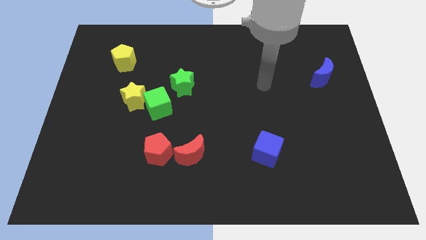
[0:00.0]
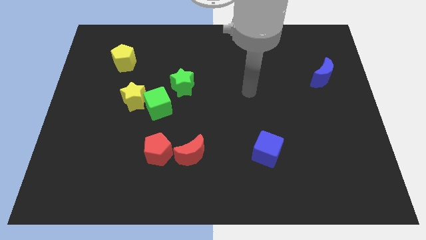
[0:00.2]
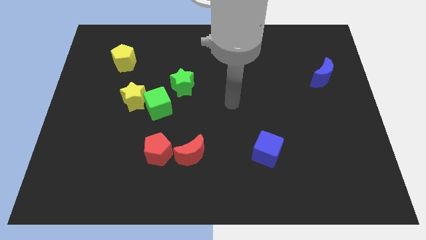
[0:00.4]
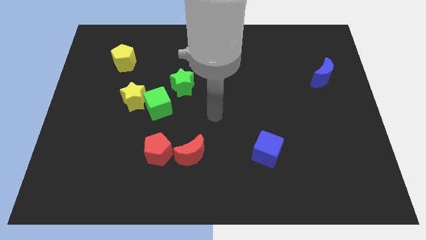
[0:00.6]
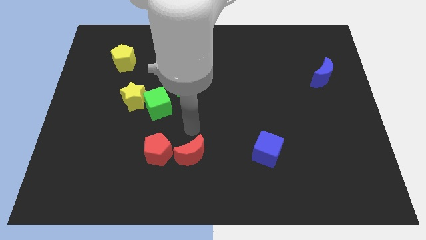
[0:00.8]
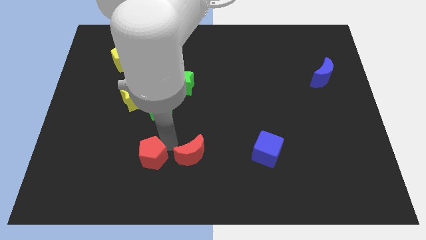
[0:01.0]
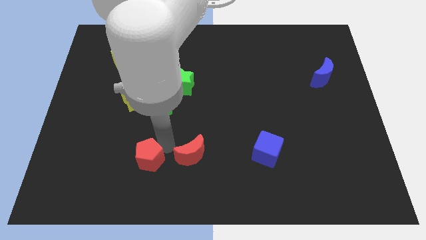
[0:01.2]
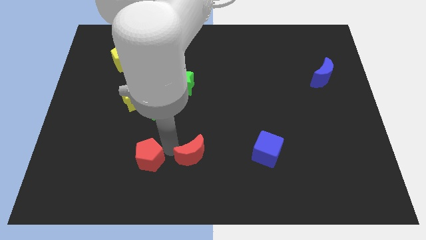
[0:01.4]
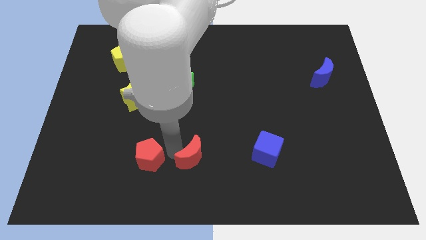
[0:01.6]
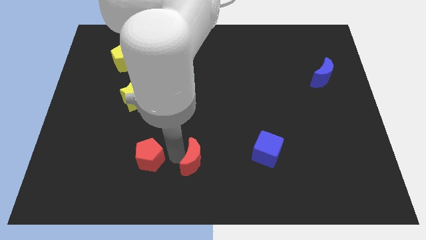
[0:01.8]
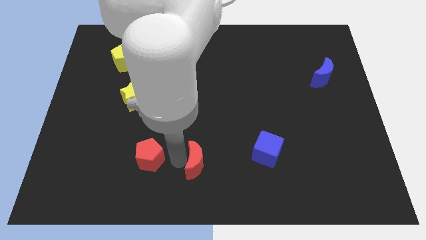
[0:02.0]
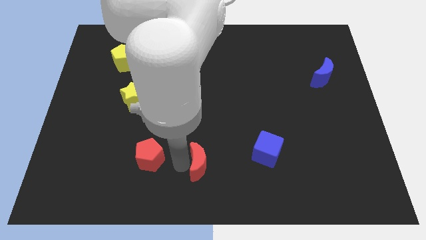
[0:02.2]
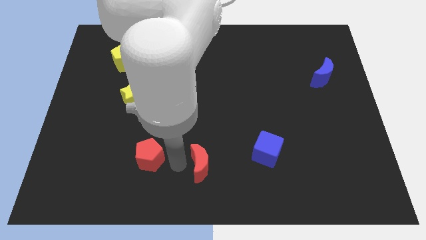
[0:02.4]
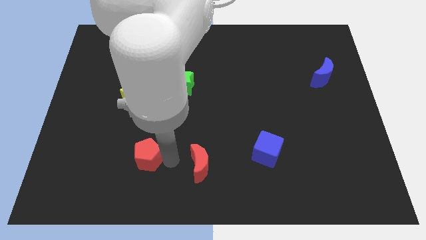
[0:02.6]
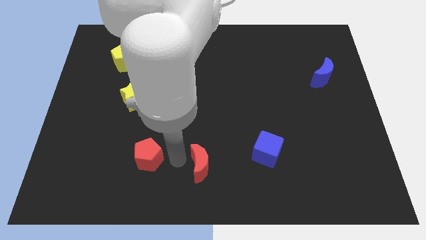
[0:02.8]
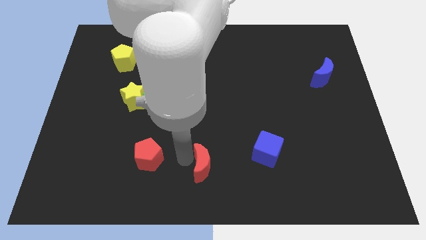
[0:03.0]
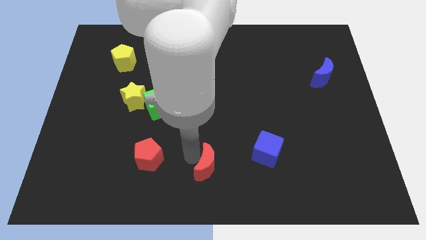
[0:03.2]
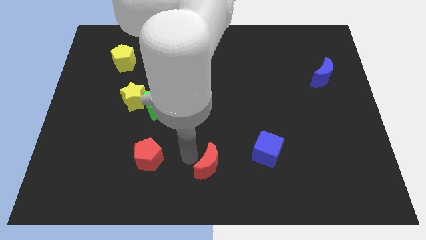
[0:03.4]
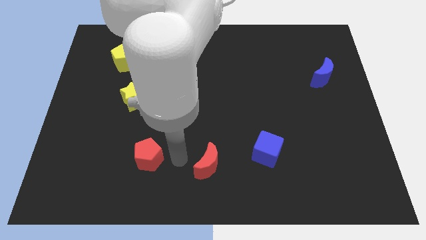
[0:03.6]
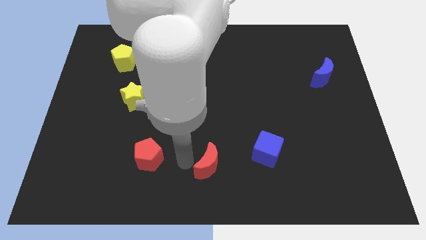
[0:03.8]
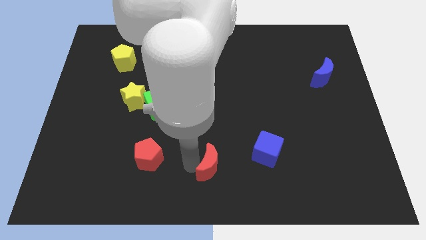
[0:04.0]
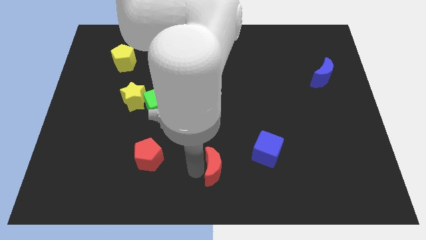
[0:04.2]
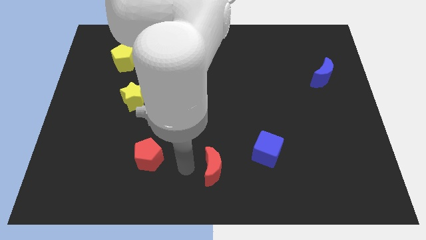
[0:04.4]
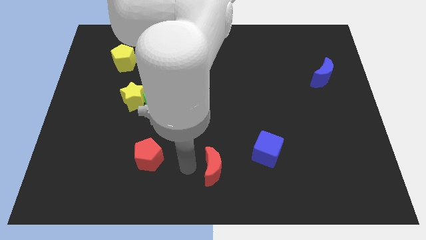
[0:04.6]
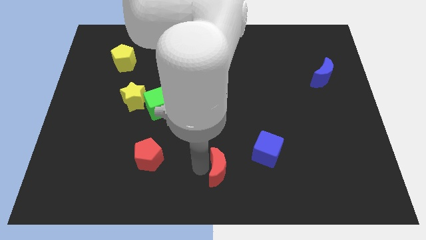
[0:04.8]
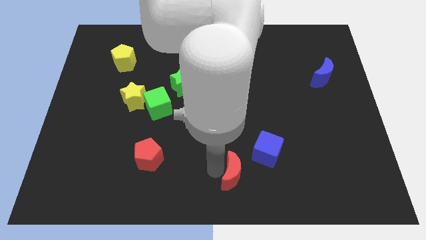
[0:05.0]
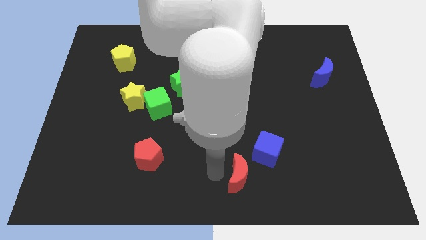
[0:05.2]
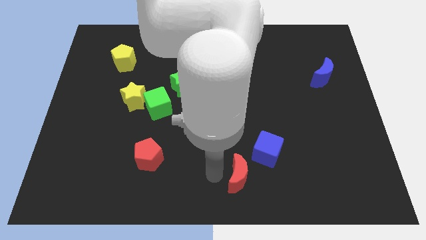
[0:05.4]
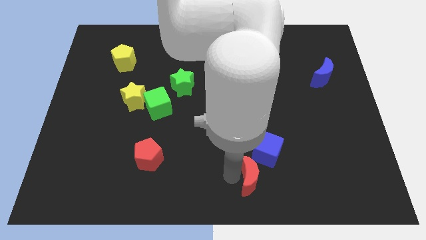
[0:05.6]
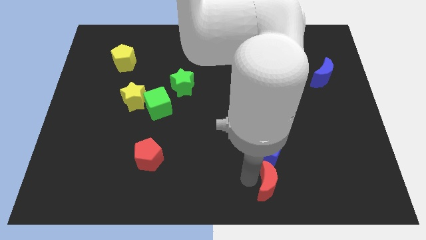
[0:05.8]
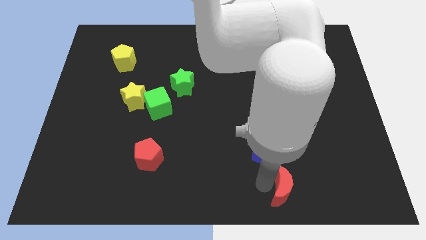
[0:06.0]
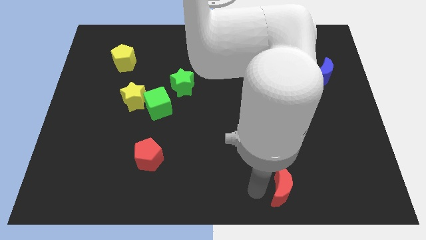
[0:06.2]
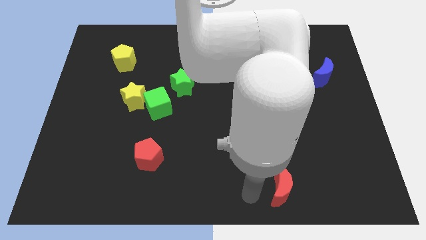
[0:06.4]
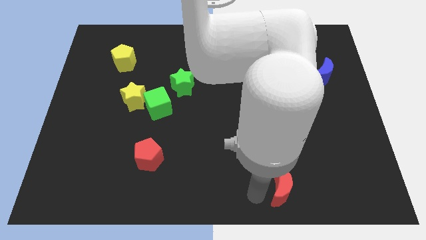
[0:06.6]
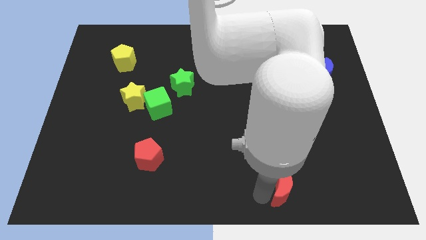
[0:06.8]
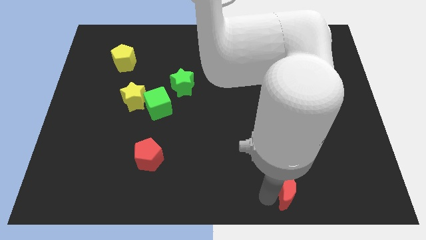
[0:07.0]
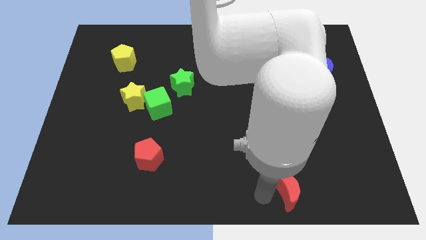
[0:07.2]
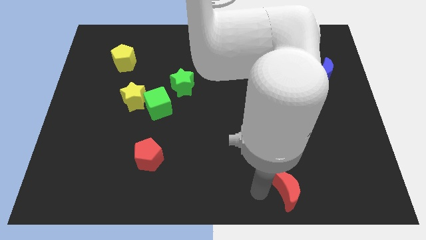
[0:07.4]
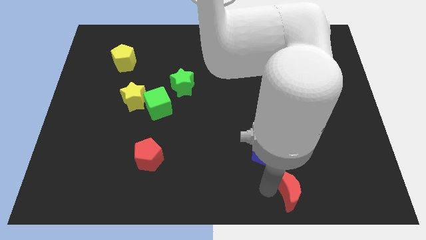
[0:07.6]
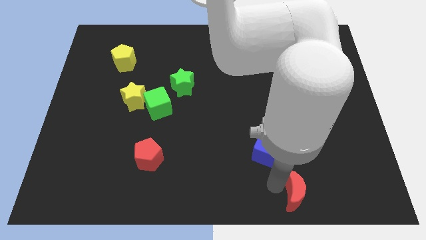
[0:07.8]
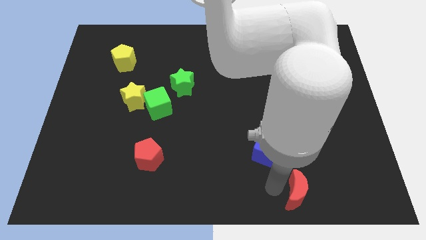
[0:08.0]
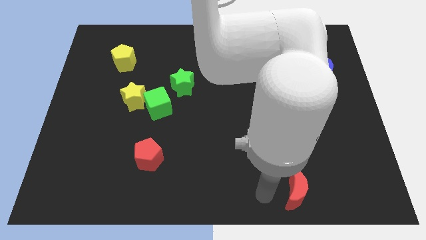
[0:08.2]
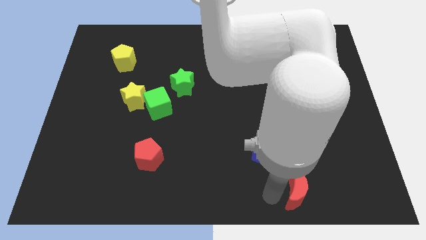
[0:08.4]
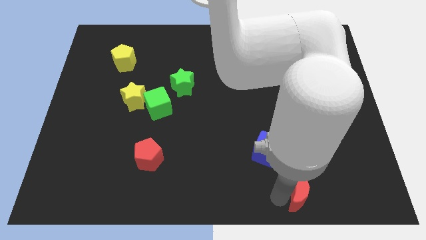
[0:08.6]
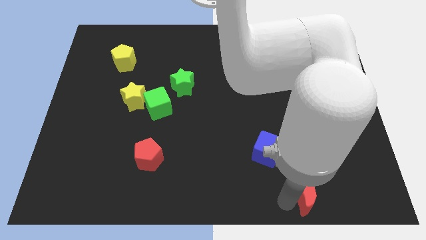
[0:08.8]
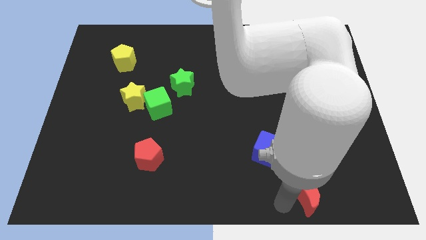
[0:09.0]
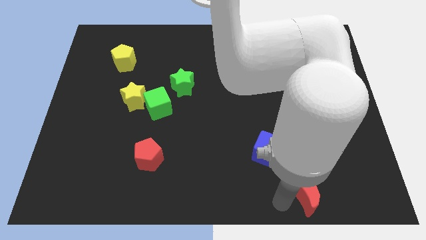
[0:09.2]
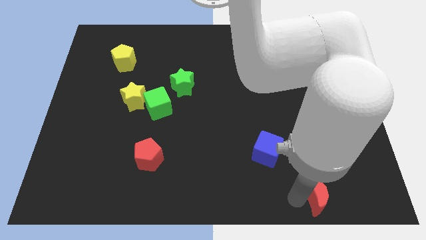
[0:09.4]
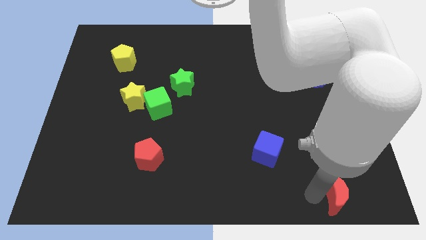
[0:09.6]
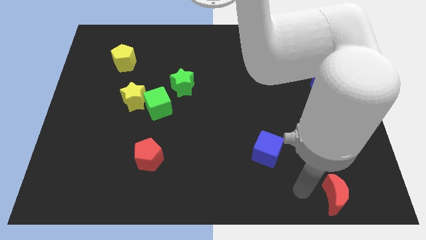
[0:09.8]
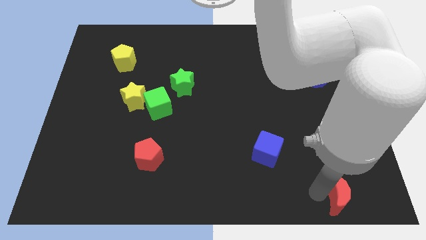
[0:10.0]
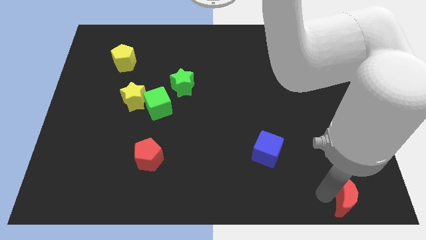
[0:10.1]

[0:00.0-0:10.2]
move the red moon to the bottom right corner

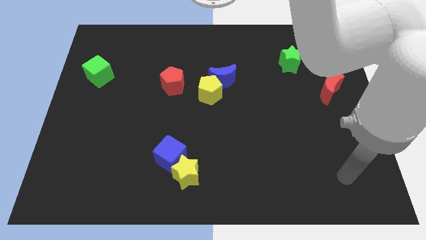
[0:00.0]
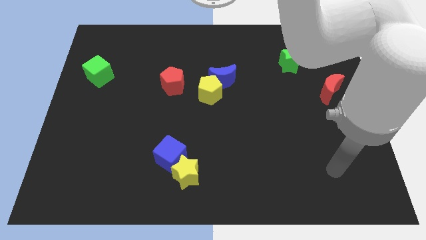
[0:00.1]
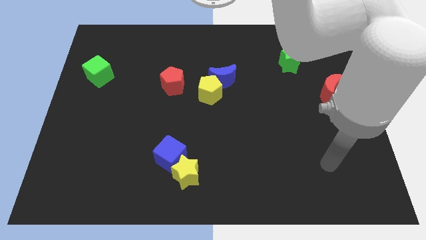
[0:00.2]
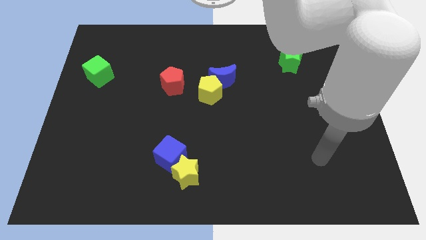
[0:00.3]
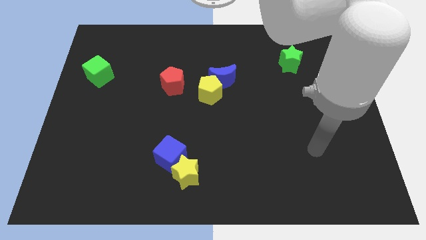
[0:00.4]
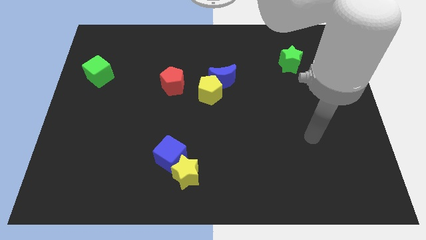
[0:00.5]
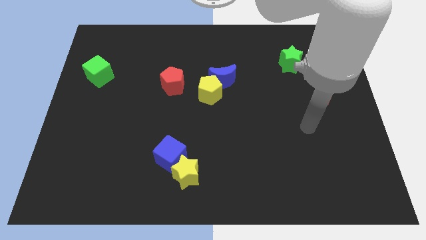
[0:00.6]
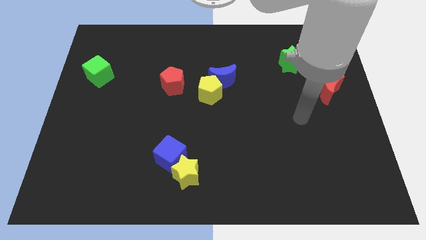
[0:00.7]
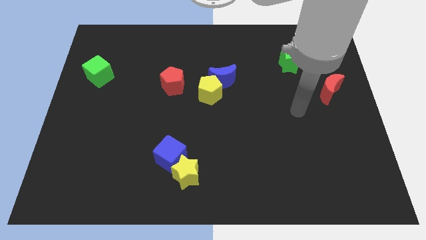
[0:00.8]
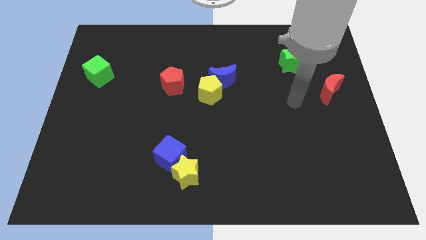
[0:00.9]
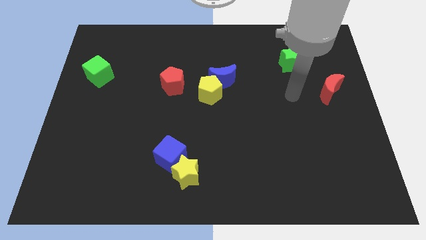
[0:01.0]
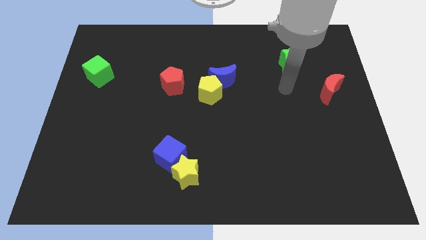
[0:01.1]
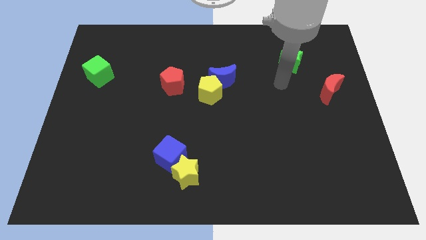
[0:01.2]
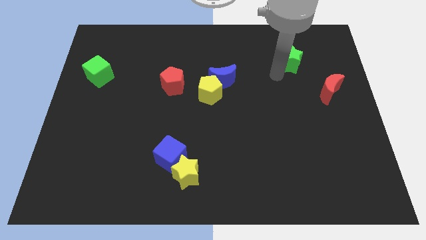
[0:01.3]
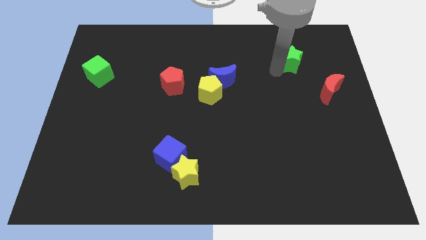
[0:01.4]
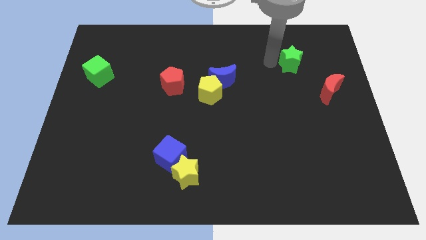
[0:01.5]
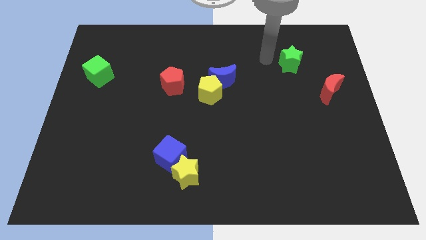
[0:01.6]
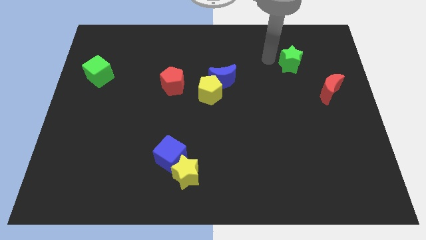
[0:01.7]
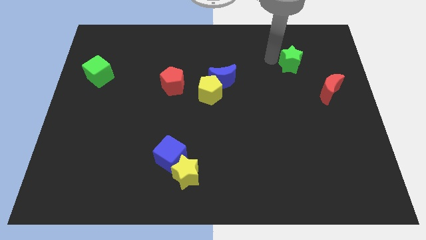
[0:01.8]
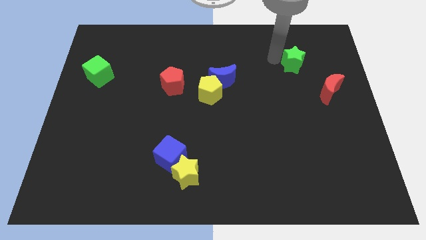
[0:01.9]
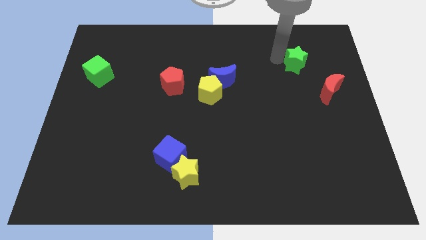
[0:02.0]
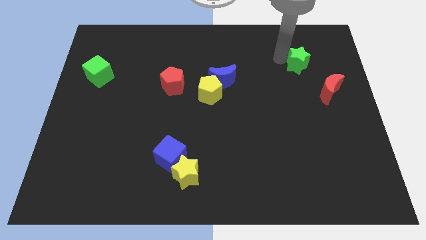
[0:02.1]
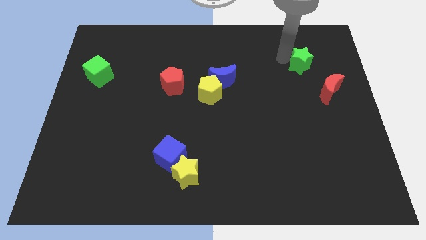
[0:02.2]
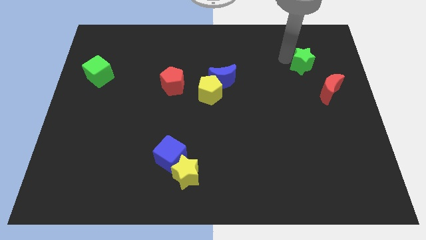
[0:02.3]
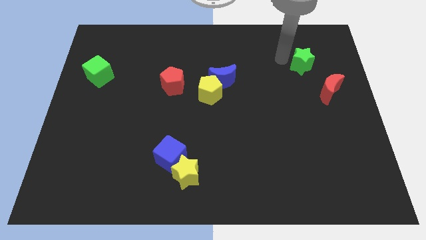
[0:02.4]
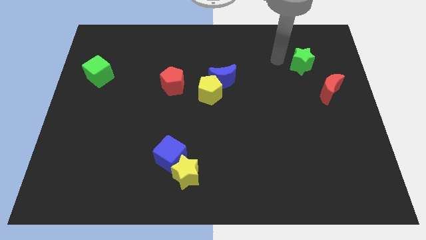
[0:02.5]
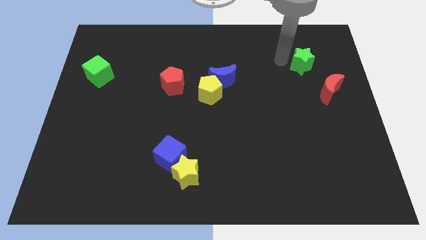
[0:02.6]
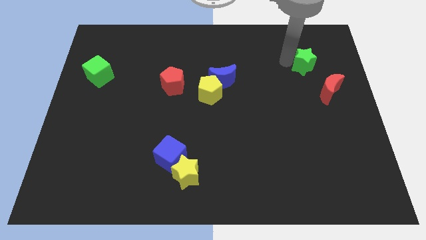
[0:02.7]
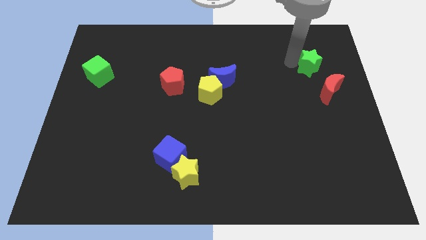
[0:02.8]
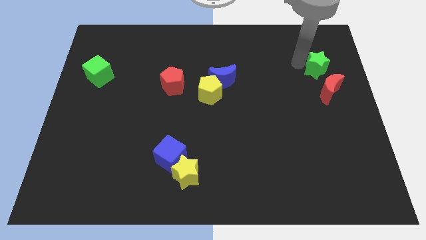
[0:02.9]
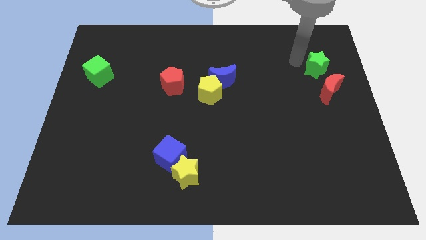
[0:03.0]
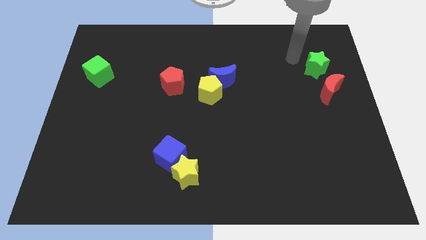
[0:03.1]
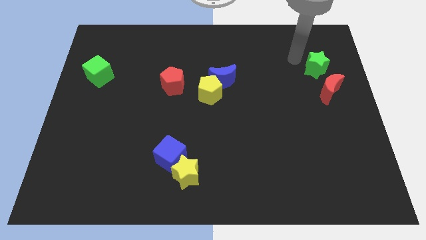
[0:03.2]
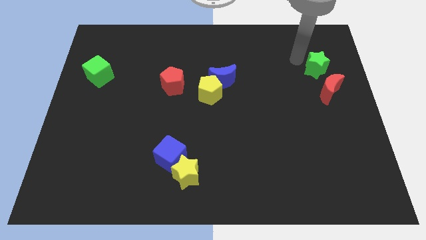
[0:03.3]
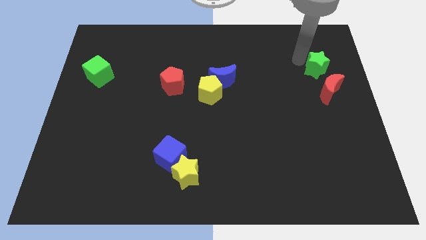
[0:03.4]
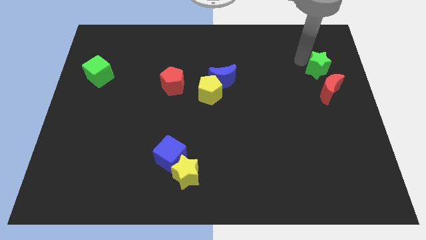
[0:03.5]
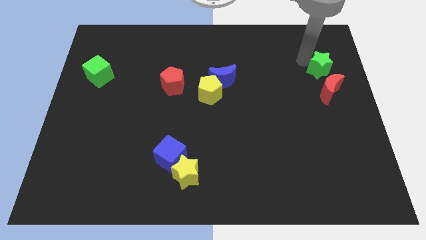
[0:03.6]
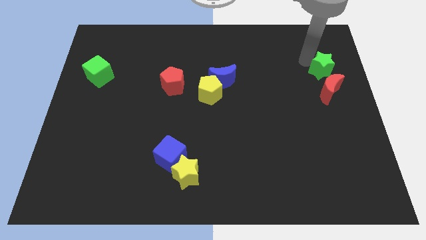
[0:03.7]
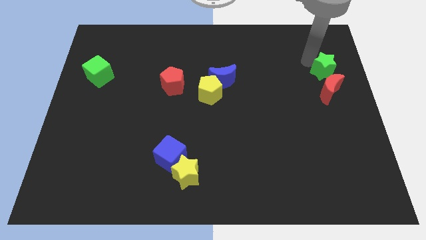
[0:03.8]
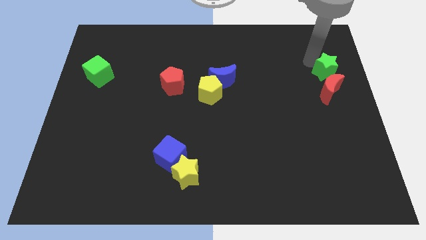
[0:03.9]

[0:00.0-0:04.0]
put the green star to the center right
